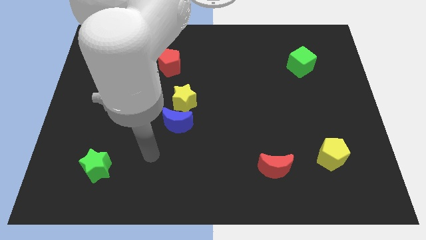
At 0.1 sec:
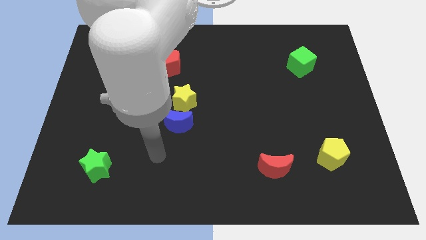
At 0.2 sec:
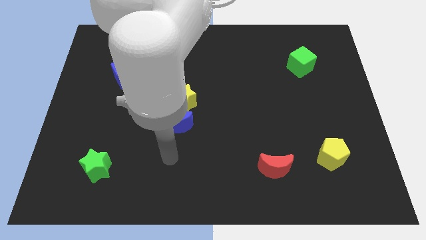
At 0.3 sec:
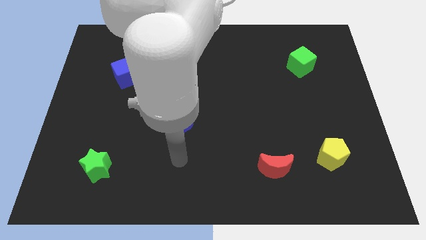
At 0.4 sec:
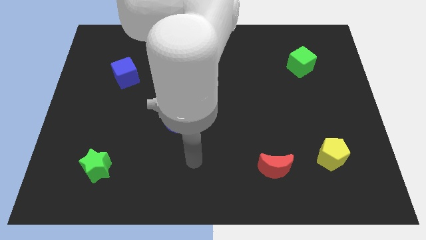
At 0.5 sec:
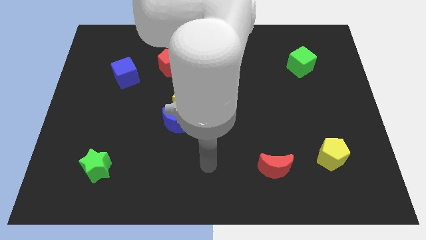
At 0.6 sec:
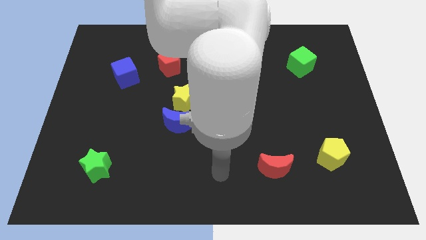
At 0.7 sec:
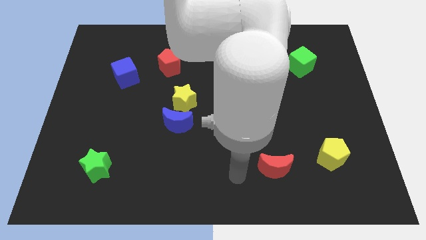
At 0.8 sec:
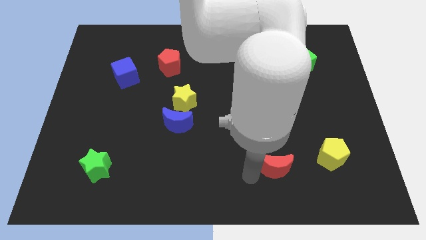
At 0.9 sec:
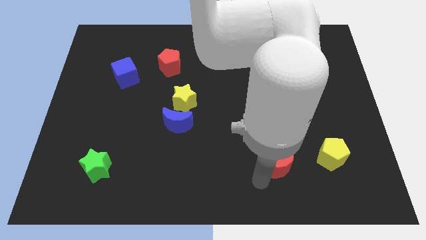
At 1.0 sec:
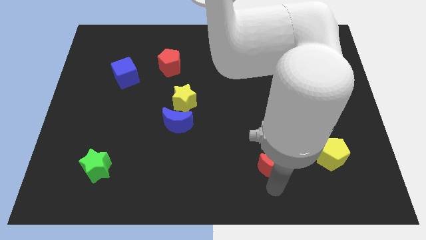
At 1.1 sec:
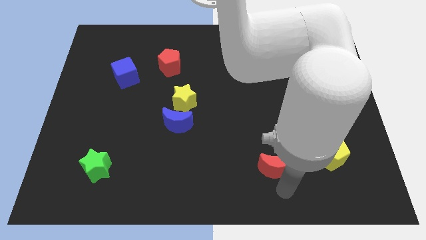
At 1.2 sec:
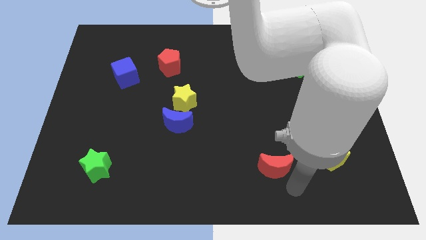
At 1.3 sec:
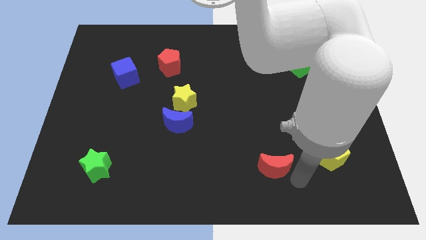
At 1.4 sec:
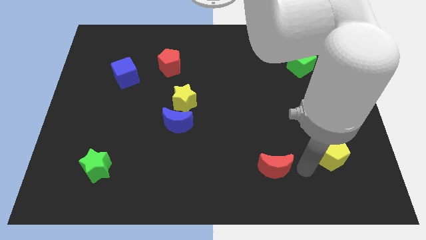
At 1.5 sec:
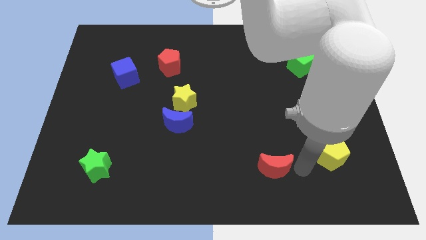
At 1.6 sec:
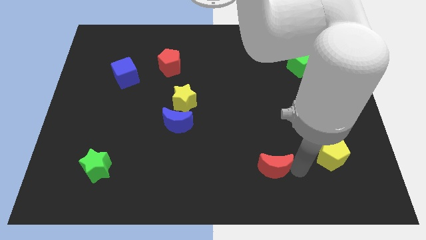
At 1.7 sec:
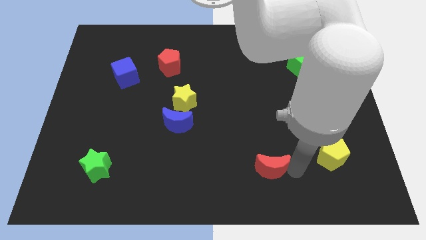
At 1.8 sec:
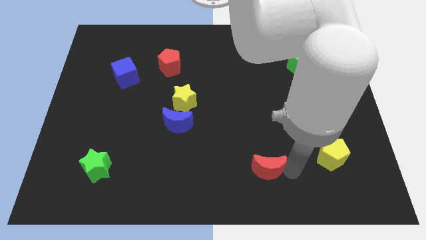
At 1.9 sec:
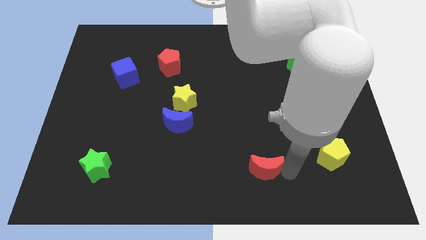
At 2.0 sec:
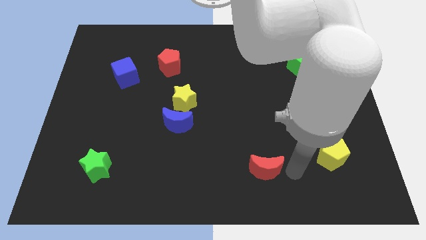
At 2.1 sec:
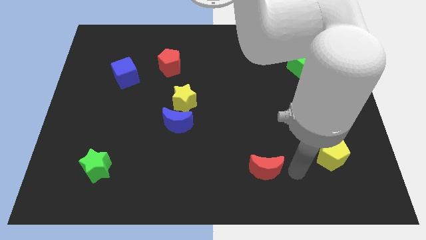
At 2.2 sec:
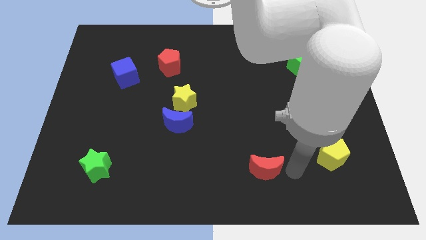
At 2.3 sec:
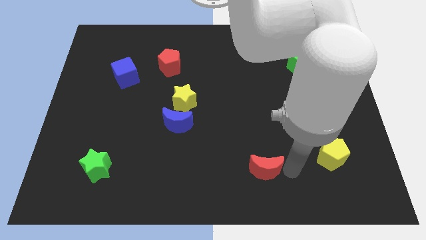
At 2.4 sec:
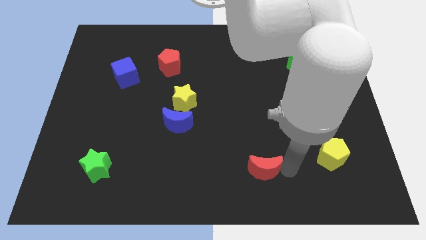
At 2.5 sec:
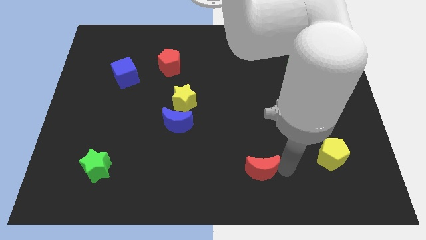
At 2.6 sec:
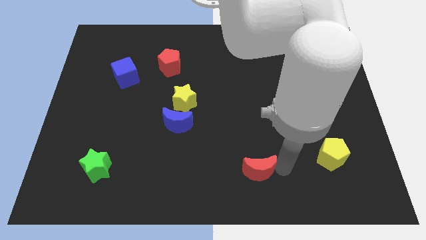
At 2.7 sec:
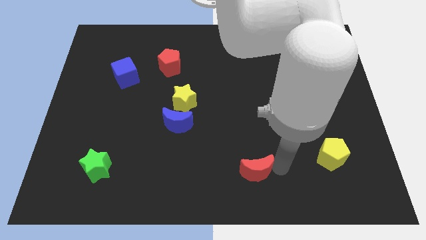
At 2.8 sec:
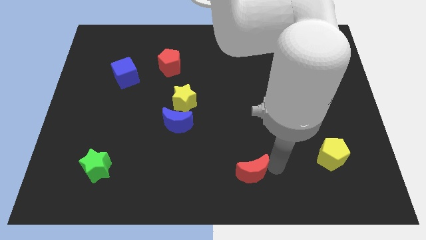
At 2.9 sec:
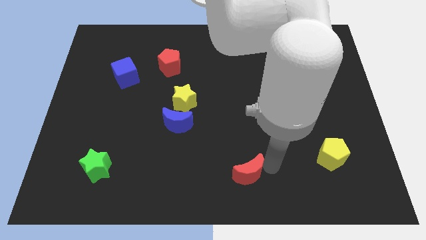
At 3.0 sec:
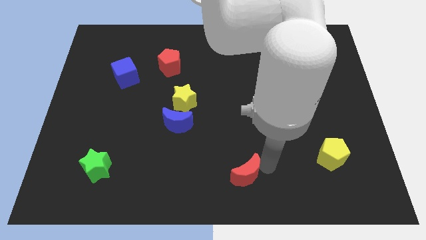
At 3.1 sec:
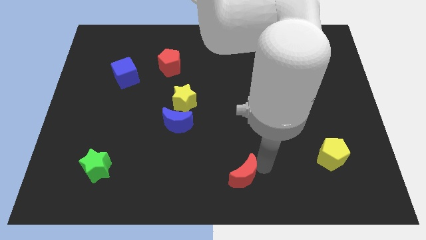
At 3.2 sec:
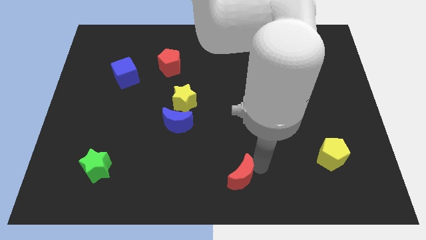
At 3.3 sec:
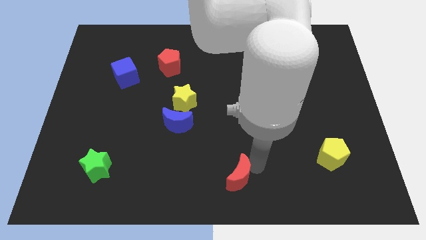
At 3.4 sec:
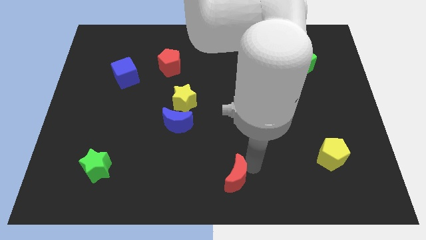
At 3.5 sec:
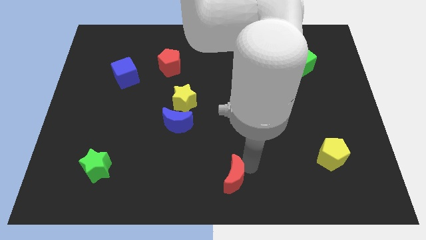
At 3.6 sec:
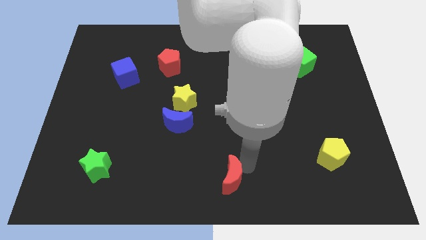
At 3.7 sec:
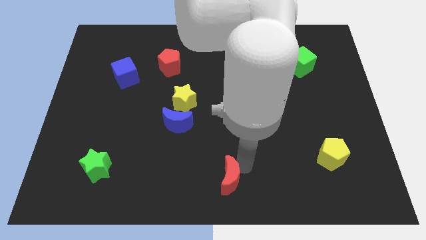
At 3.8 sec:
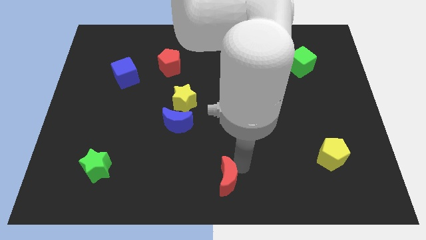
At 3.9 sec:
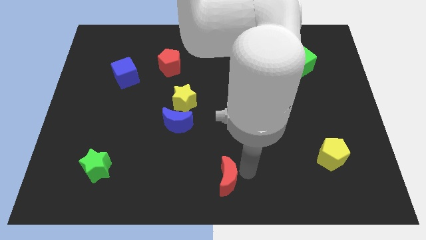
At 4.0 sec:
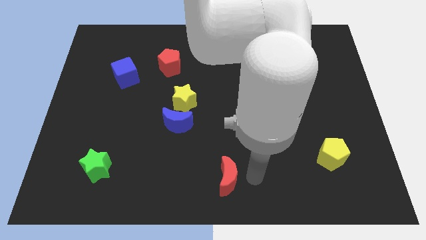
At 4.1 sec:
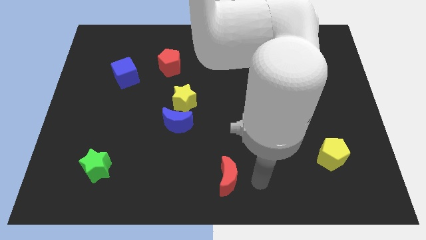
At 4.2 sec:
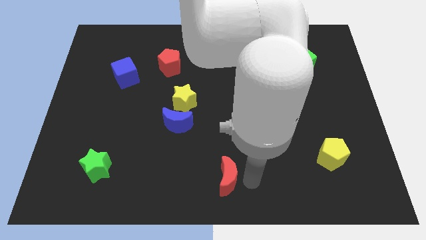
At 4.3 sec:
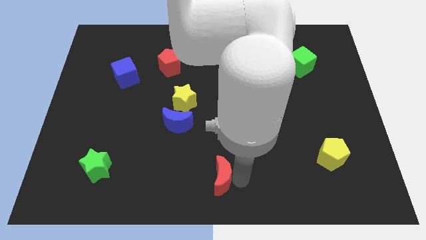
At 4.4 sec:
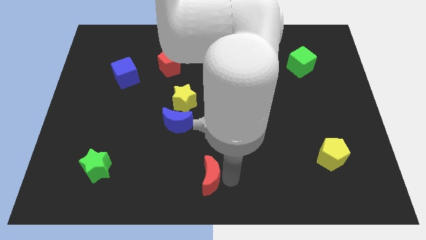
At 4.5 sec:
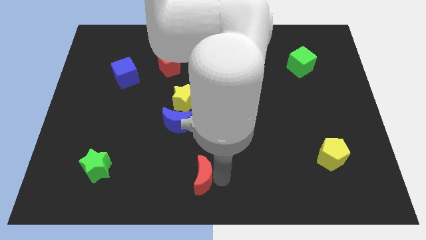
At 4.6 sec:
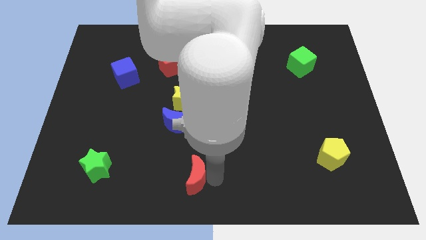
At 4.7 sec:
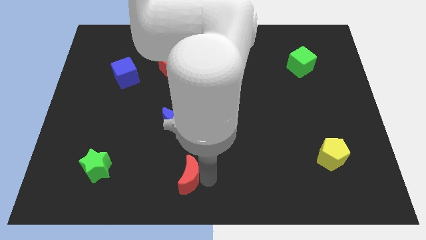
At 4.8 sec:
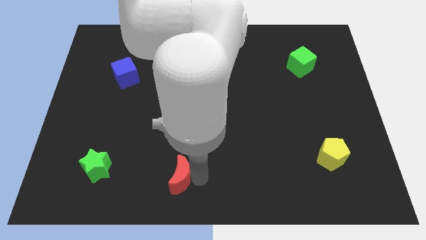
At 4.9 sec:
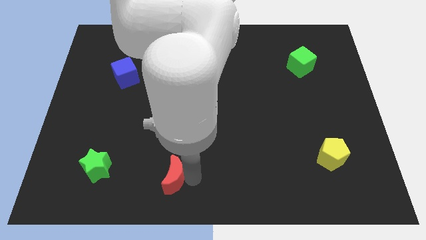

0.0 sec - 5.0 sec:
push the red moon left

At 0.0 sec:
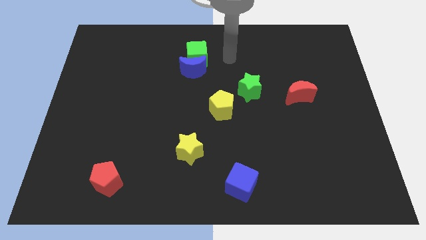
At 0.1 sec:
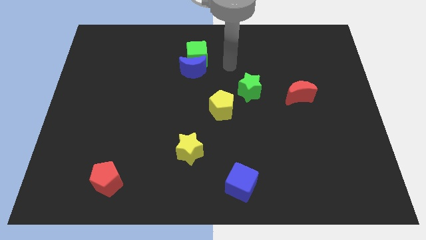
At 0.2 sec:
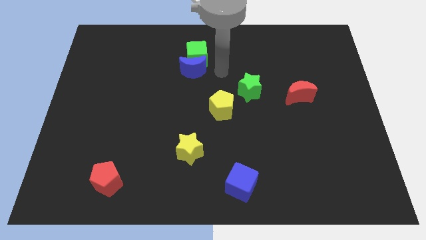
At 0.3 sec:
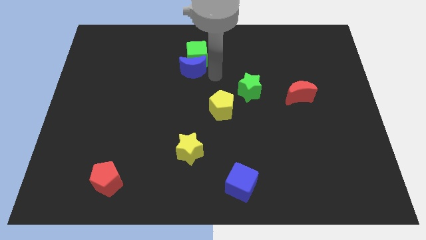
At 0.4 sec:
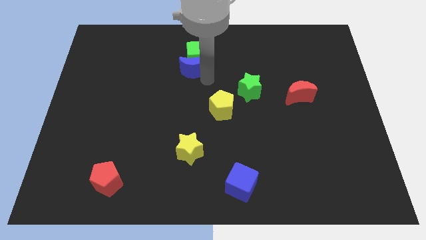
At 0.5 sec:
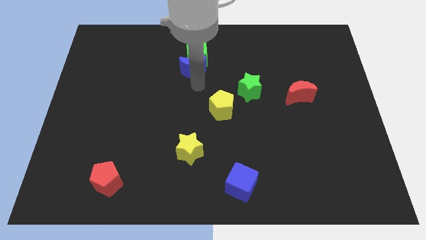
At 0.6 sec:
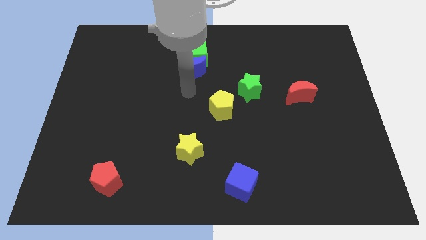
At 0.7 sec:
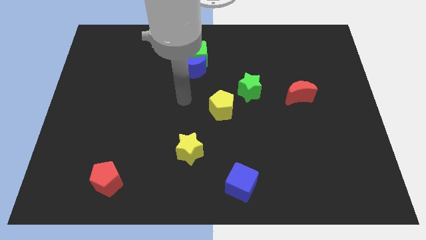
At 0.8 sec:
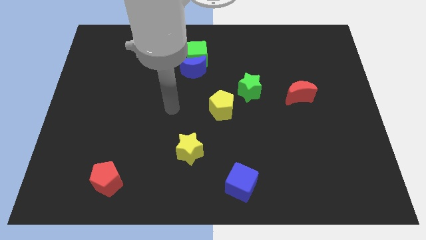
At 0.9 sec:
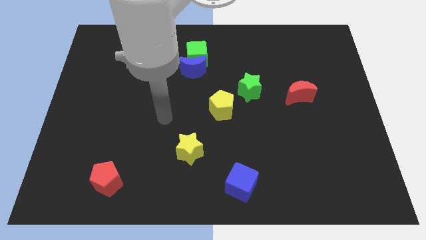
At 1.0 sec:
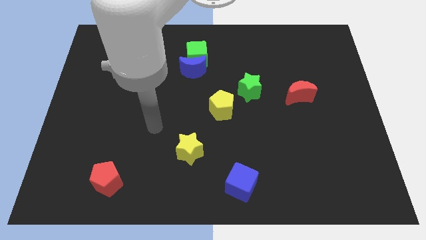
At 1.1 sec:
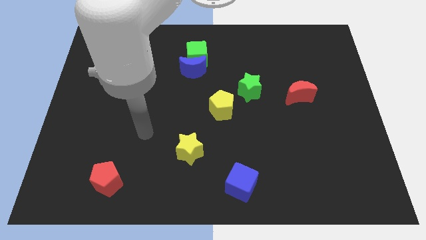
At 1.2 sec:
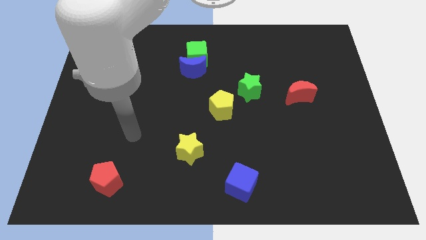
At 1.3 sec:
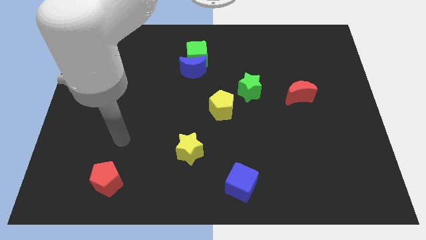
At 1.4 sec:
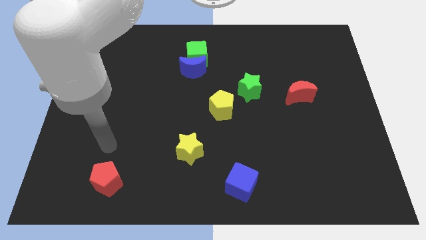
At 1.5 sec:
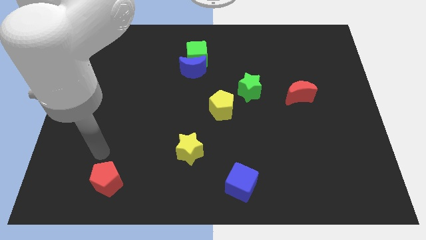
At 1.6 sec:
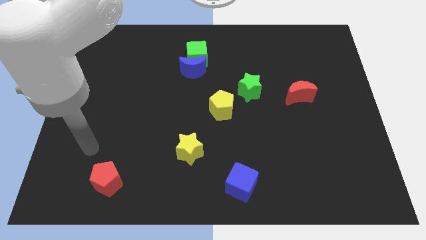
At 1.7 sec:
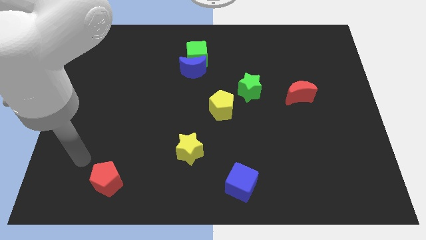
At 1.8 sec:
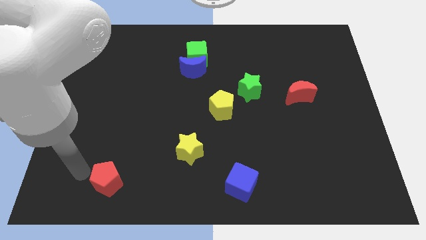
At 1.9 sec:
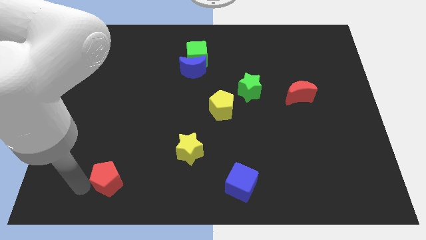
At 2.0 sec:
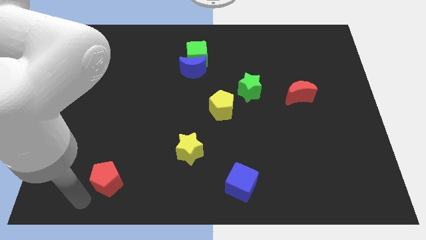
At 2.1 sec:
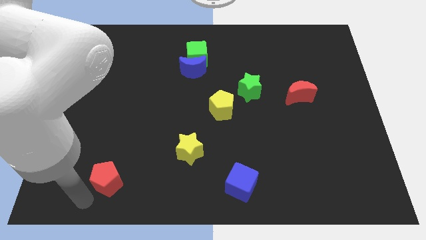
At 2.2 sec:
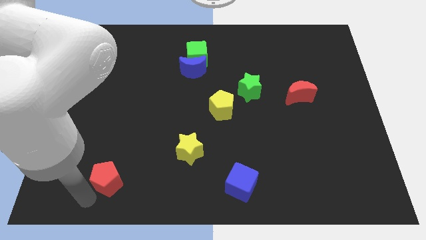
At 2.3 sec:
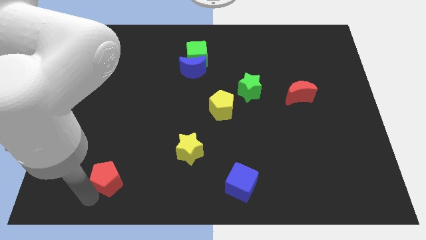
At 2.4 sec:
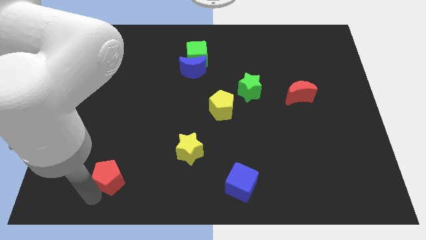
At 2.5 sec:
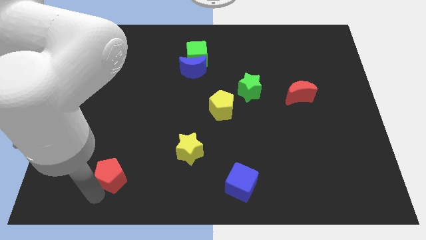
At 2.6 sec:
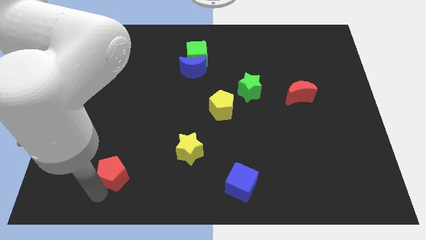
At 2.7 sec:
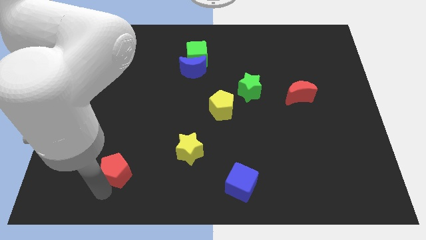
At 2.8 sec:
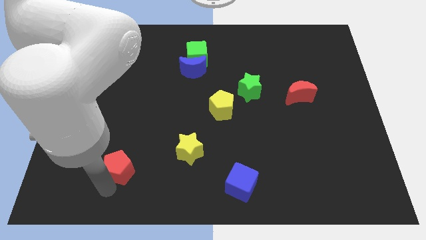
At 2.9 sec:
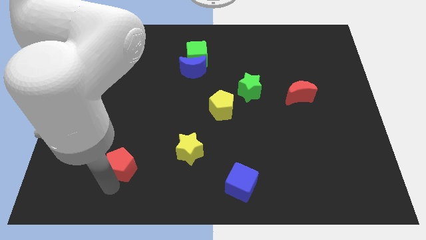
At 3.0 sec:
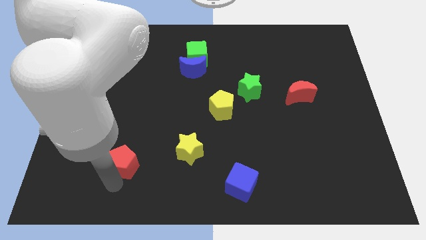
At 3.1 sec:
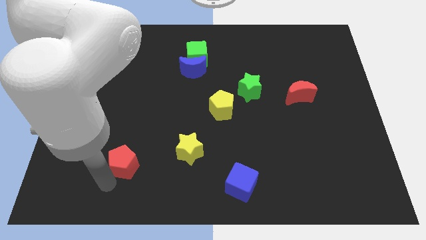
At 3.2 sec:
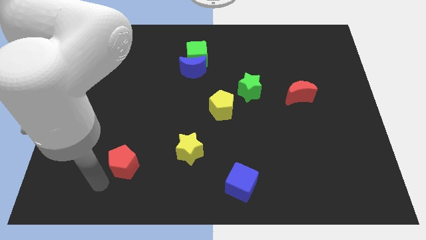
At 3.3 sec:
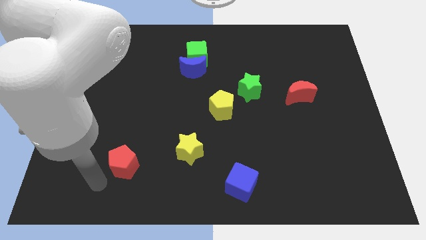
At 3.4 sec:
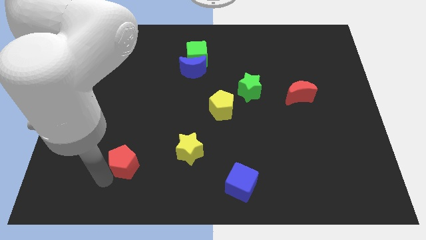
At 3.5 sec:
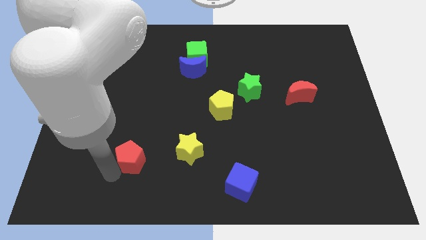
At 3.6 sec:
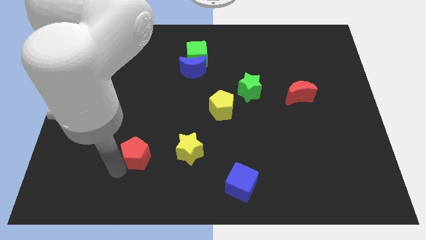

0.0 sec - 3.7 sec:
slightly slide the red pentagon upwards and to the right
